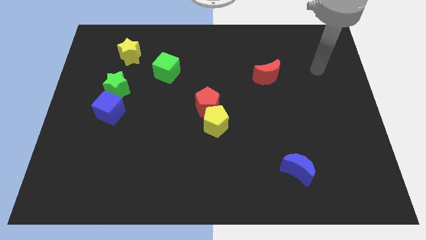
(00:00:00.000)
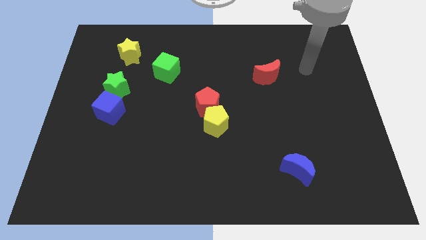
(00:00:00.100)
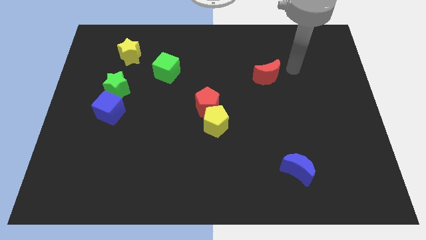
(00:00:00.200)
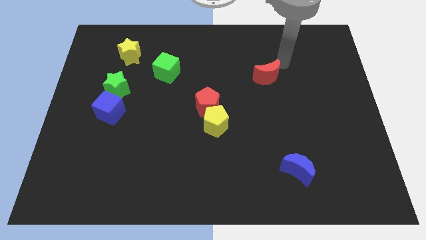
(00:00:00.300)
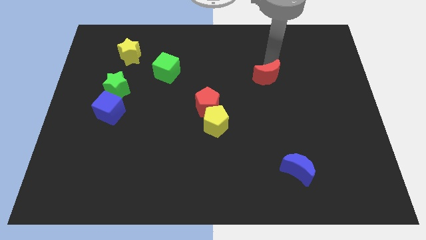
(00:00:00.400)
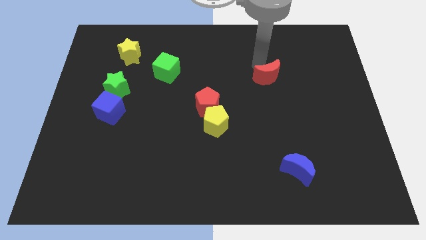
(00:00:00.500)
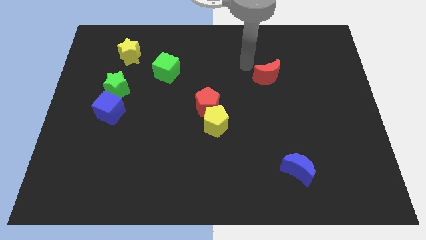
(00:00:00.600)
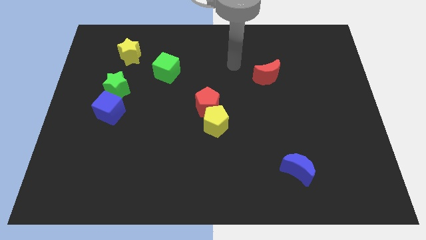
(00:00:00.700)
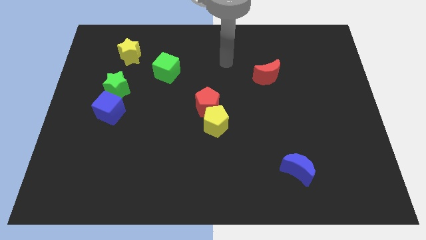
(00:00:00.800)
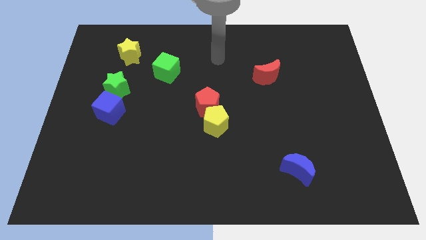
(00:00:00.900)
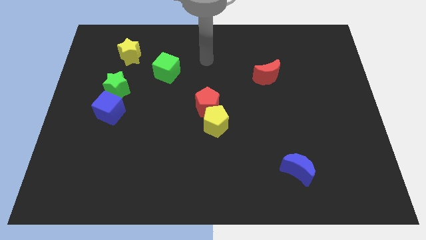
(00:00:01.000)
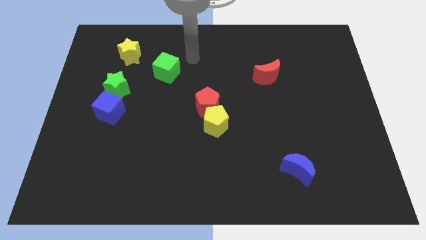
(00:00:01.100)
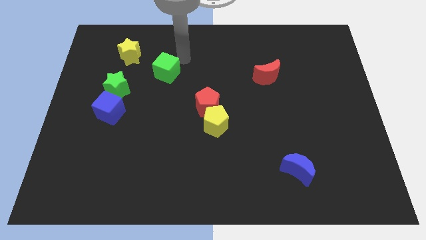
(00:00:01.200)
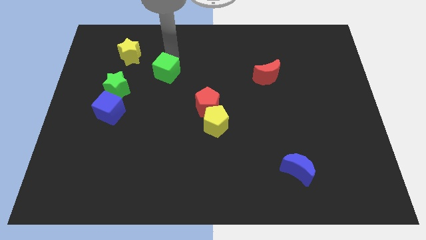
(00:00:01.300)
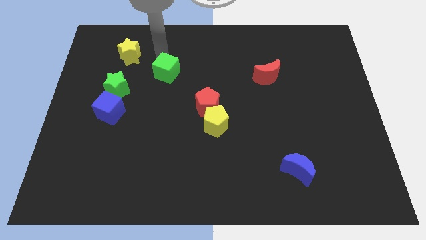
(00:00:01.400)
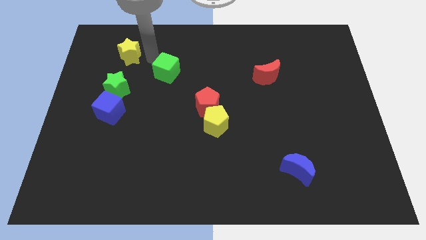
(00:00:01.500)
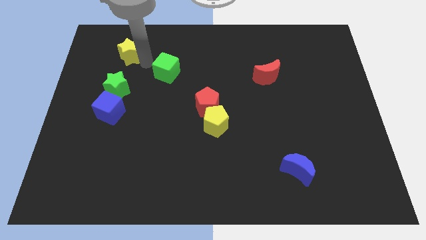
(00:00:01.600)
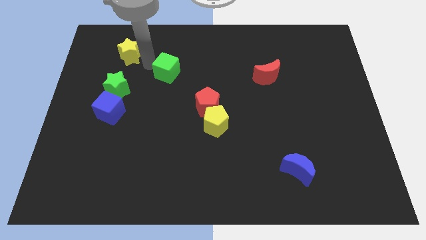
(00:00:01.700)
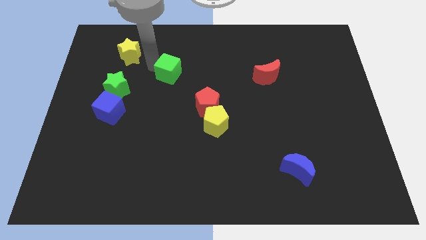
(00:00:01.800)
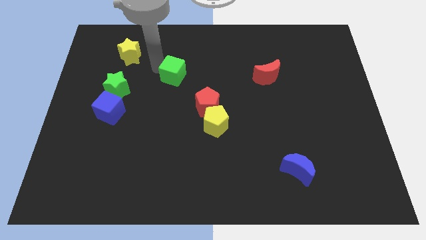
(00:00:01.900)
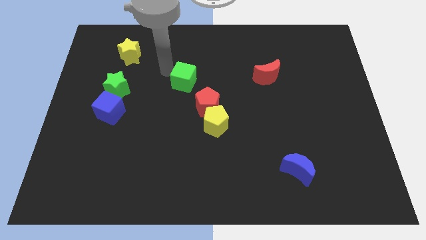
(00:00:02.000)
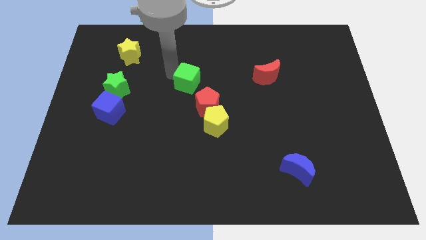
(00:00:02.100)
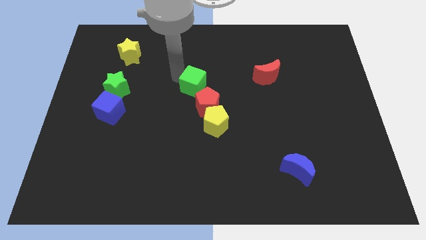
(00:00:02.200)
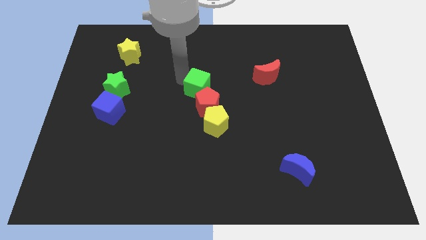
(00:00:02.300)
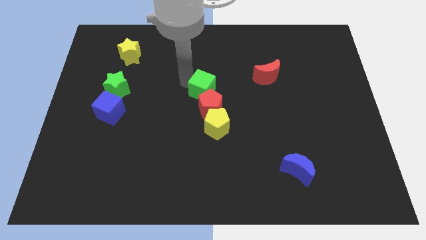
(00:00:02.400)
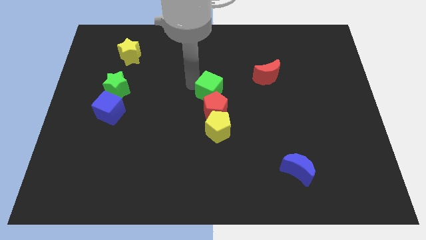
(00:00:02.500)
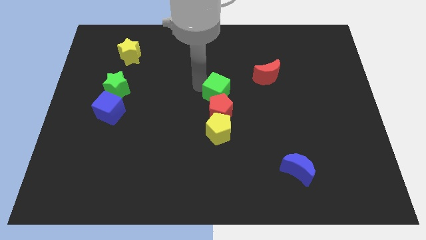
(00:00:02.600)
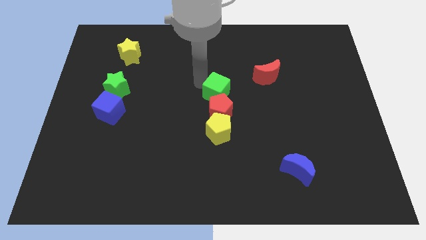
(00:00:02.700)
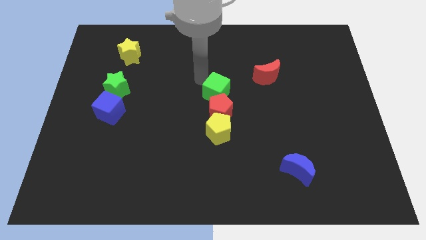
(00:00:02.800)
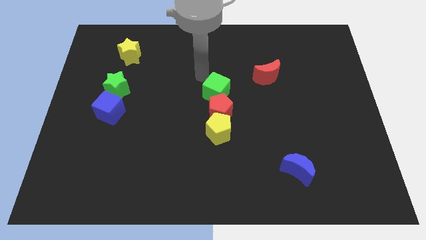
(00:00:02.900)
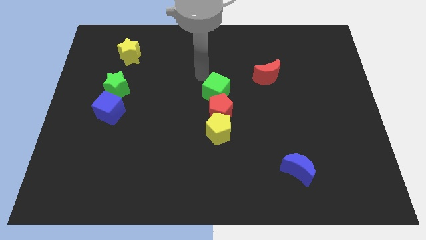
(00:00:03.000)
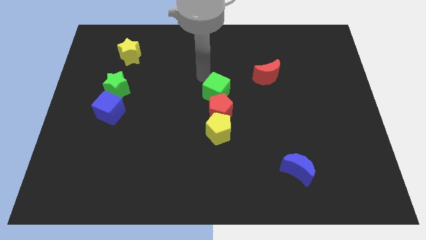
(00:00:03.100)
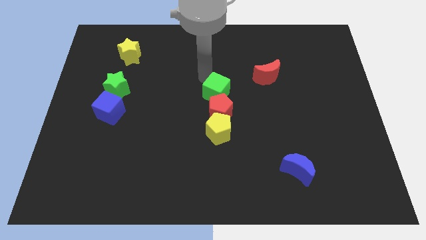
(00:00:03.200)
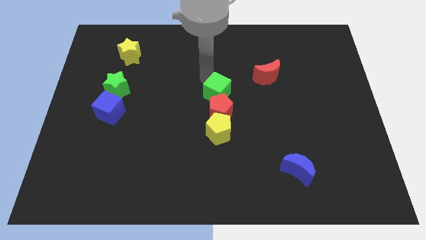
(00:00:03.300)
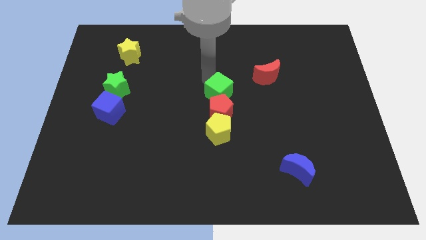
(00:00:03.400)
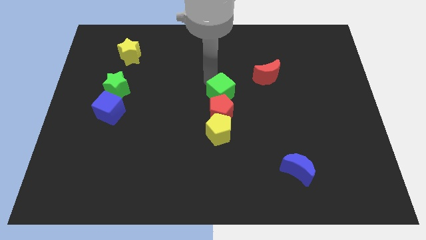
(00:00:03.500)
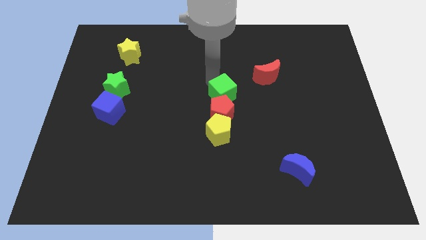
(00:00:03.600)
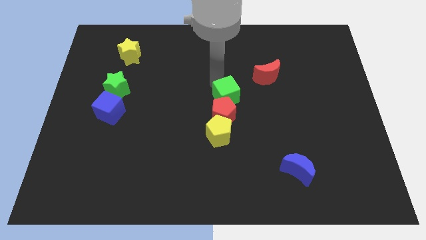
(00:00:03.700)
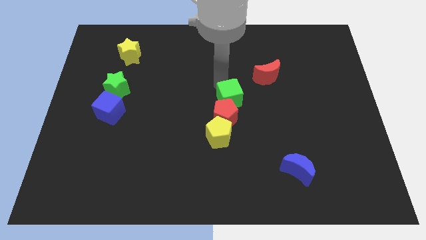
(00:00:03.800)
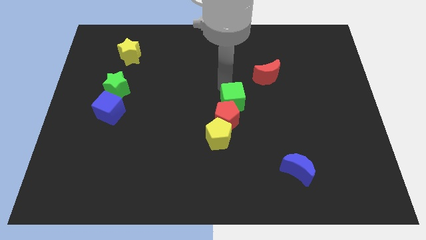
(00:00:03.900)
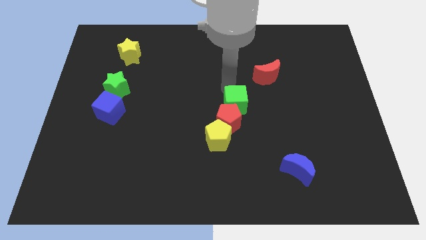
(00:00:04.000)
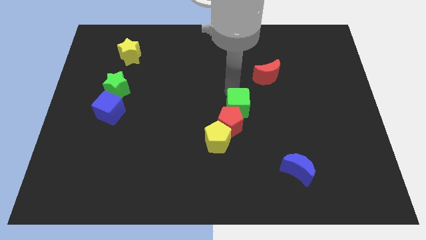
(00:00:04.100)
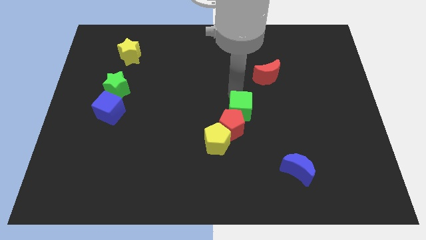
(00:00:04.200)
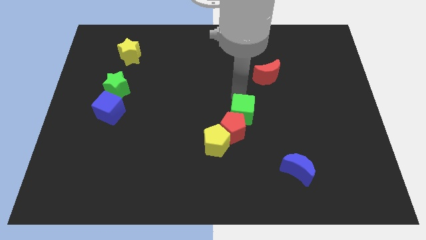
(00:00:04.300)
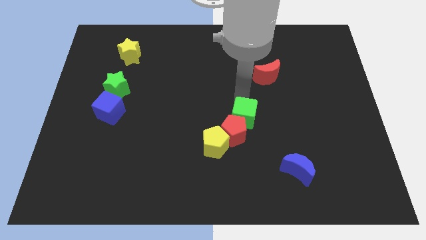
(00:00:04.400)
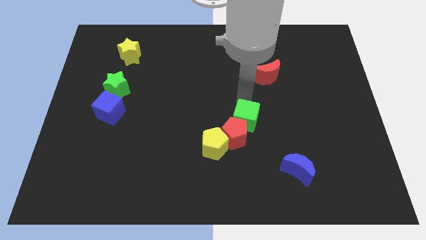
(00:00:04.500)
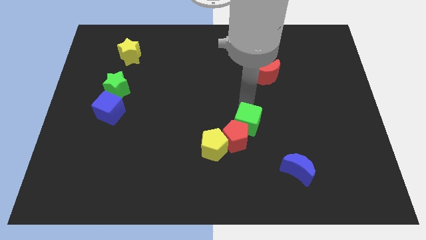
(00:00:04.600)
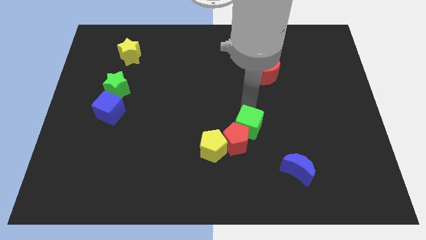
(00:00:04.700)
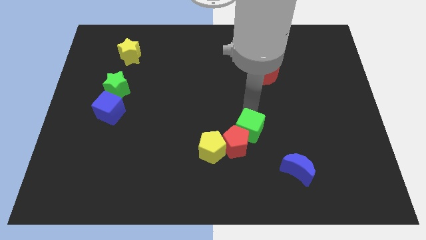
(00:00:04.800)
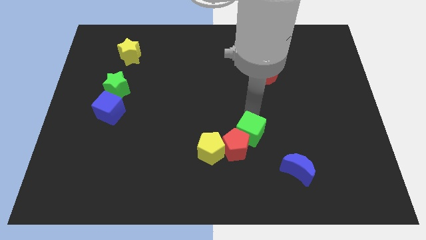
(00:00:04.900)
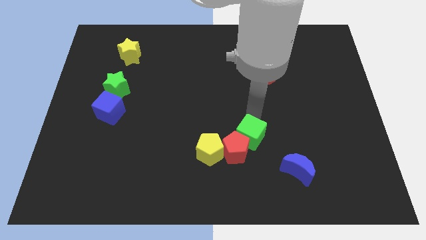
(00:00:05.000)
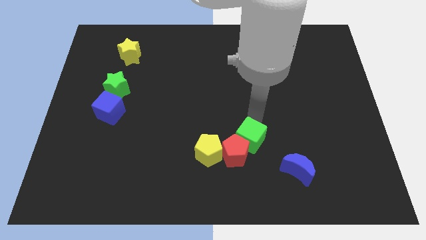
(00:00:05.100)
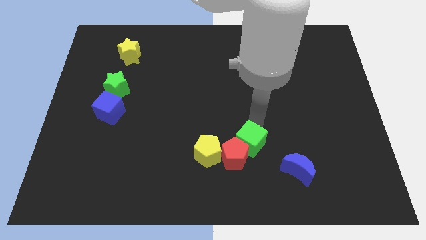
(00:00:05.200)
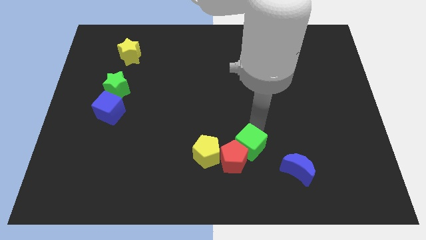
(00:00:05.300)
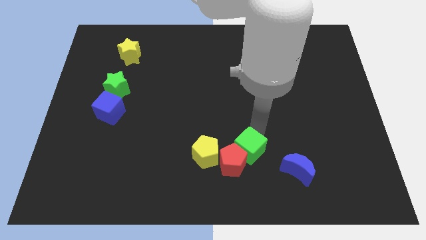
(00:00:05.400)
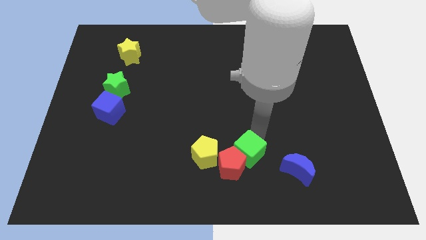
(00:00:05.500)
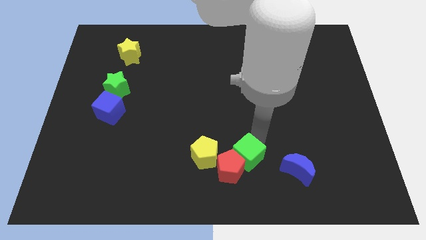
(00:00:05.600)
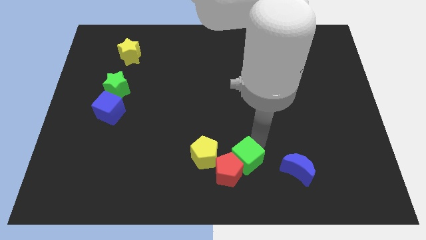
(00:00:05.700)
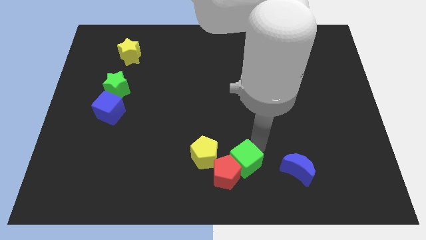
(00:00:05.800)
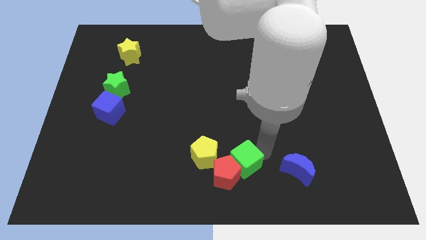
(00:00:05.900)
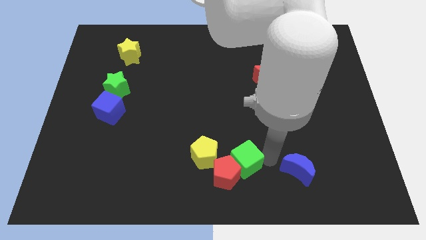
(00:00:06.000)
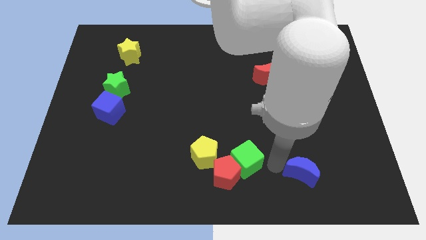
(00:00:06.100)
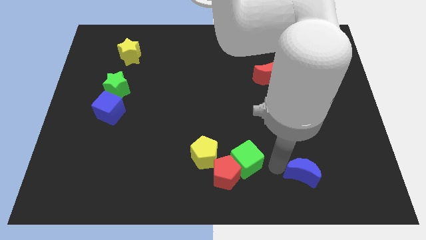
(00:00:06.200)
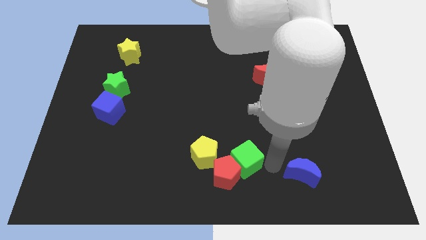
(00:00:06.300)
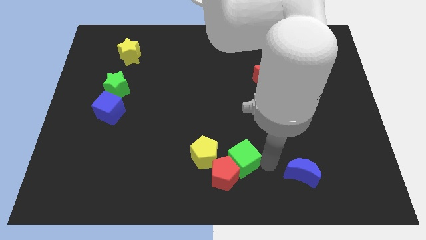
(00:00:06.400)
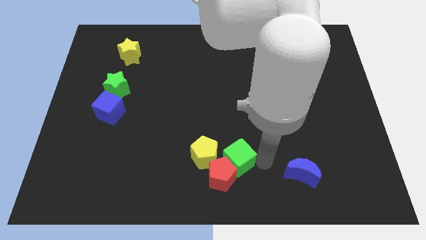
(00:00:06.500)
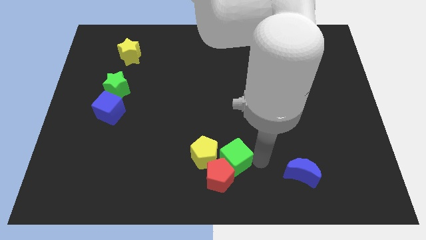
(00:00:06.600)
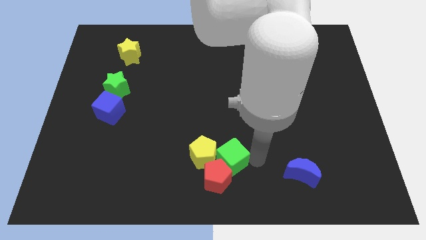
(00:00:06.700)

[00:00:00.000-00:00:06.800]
slide the green cube next to the yellow pentagon

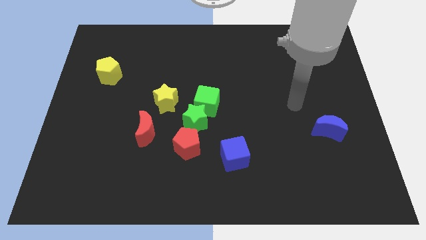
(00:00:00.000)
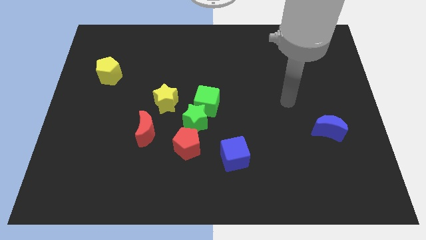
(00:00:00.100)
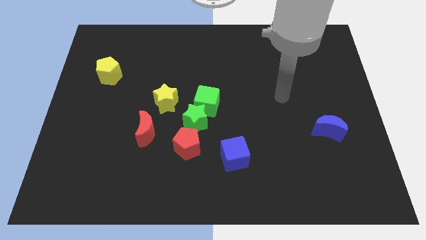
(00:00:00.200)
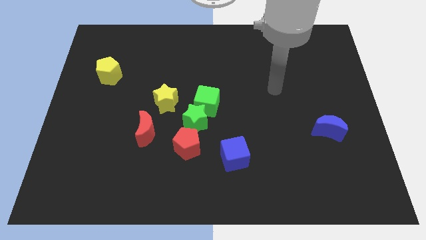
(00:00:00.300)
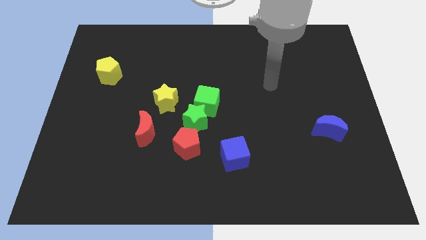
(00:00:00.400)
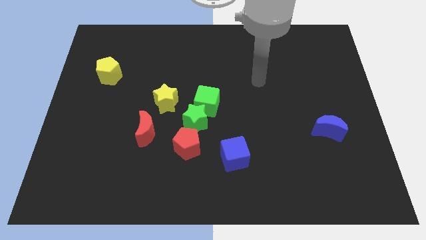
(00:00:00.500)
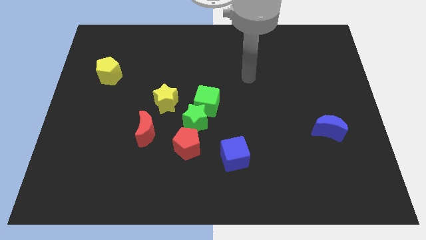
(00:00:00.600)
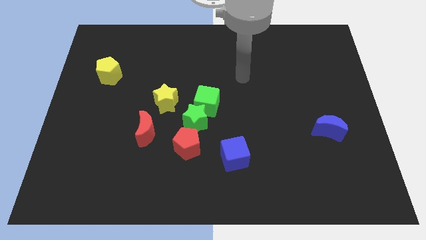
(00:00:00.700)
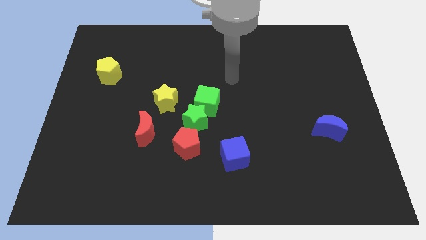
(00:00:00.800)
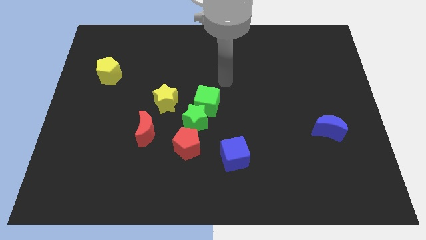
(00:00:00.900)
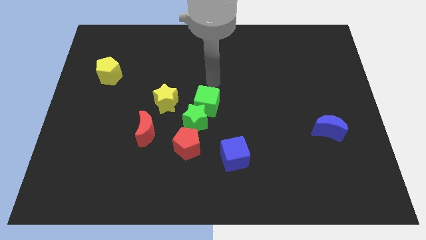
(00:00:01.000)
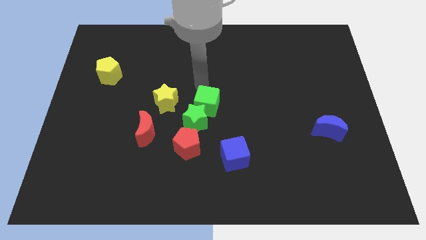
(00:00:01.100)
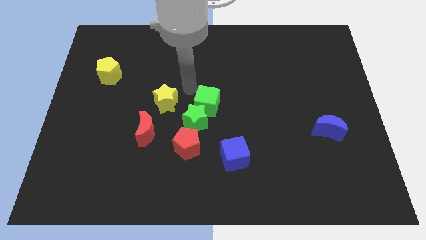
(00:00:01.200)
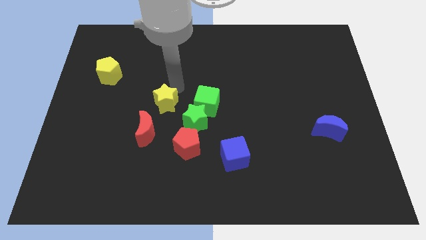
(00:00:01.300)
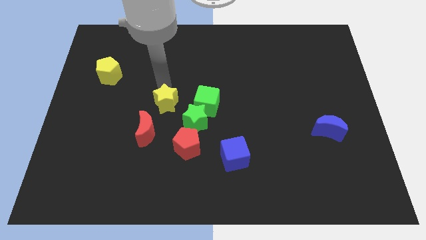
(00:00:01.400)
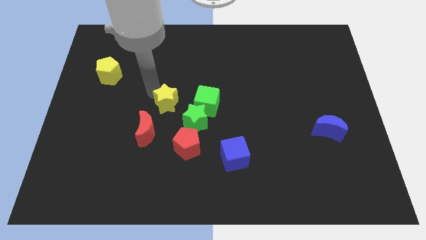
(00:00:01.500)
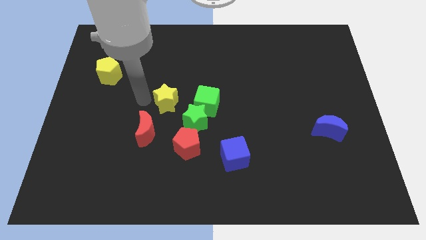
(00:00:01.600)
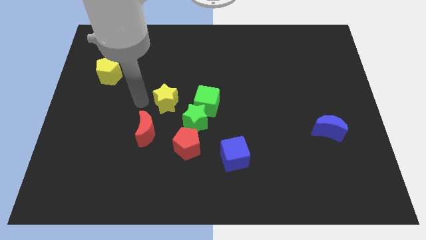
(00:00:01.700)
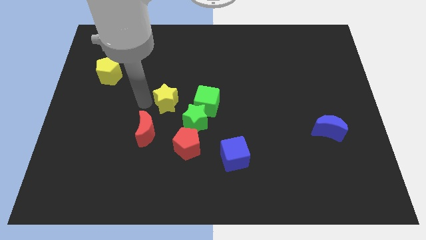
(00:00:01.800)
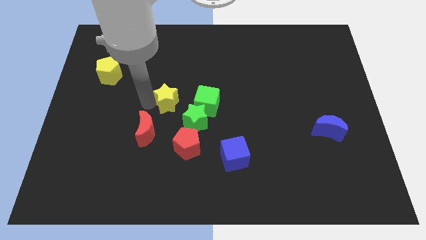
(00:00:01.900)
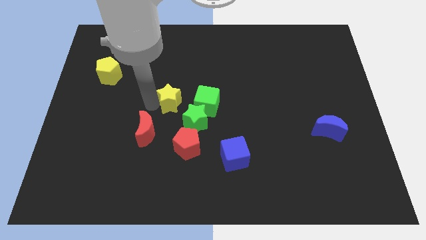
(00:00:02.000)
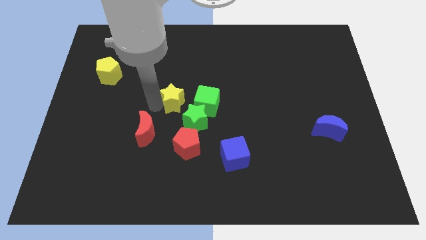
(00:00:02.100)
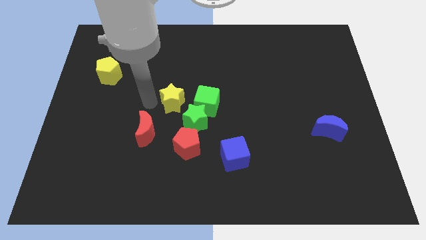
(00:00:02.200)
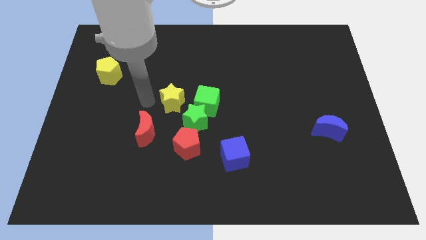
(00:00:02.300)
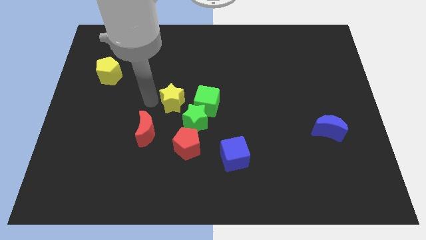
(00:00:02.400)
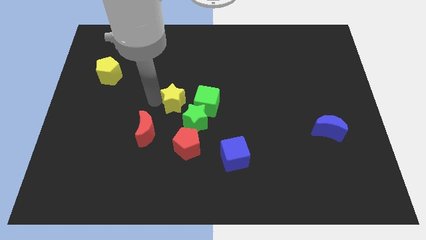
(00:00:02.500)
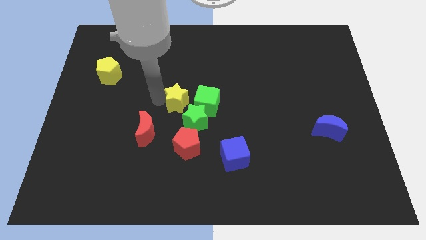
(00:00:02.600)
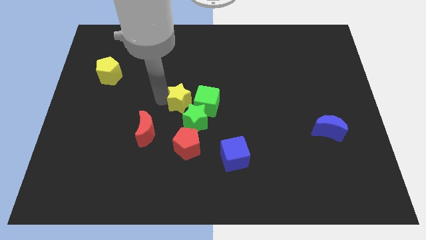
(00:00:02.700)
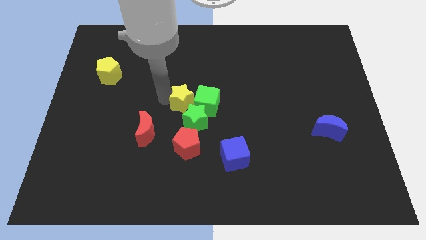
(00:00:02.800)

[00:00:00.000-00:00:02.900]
put the yellow star next to the green cube
